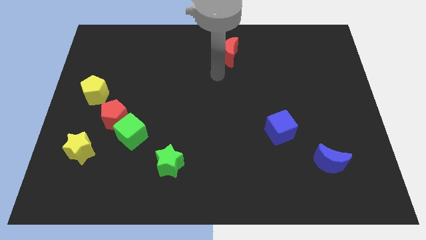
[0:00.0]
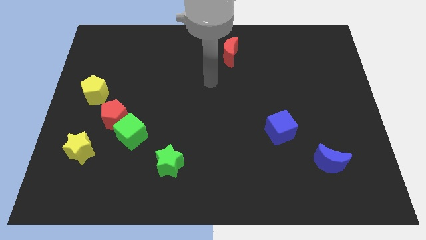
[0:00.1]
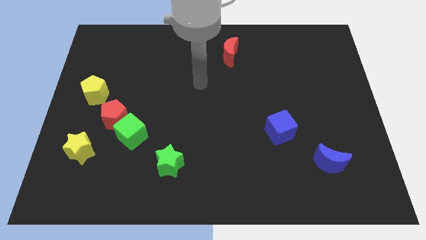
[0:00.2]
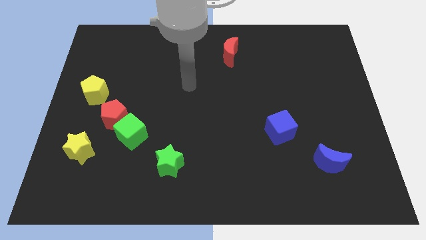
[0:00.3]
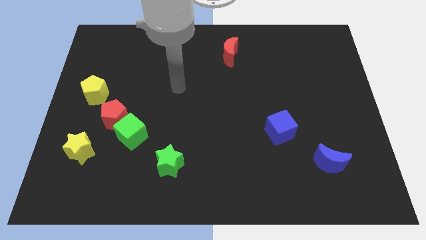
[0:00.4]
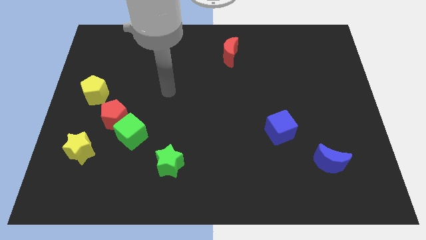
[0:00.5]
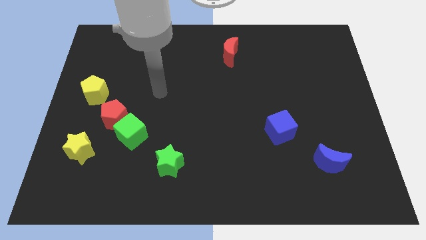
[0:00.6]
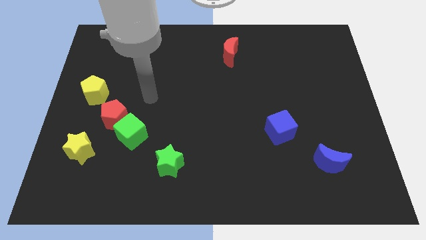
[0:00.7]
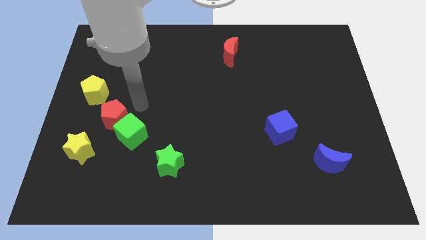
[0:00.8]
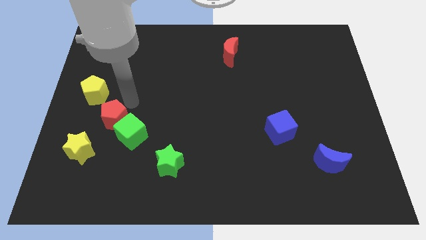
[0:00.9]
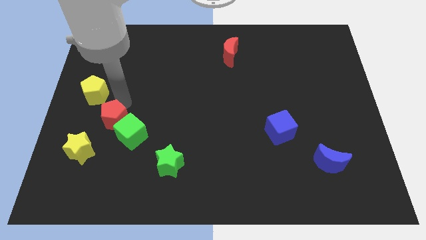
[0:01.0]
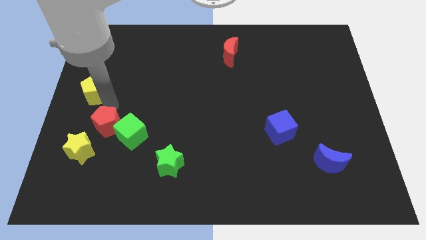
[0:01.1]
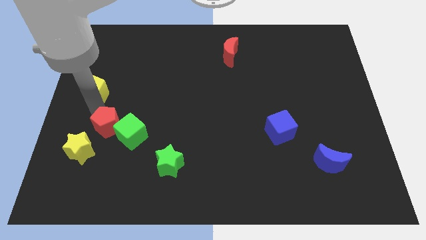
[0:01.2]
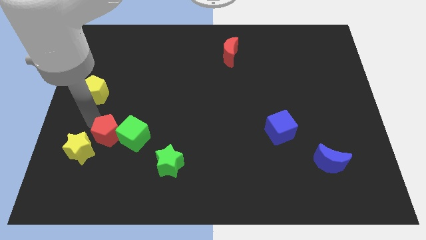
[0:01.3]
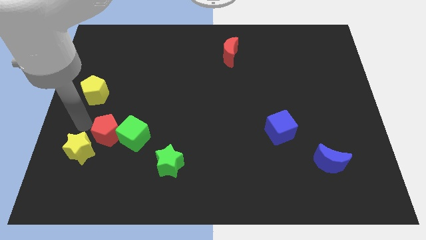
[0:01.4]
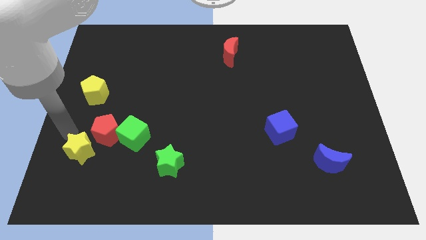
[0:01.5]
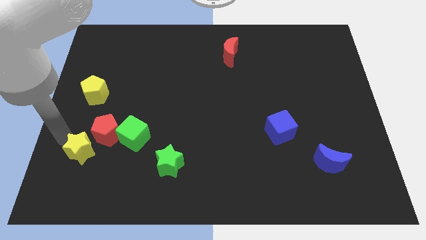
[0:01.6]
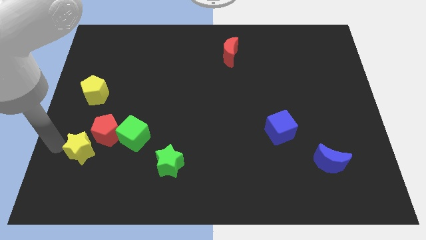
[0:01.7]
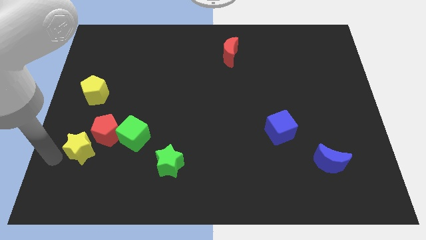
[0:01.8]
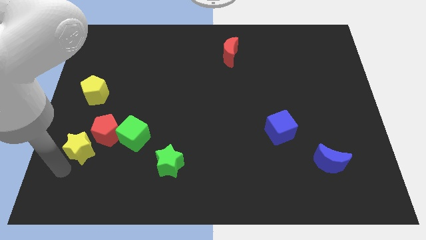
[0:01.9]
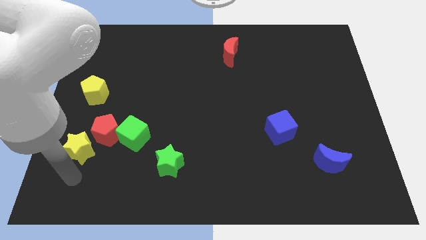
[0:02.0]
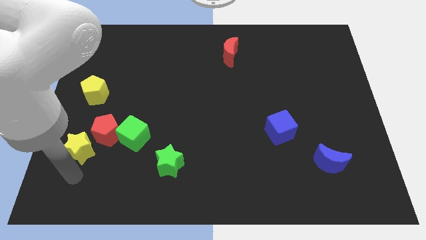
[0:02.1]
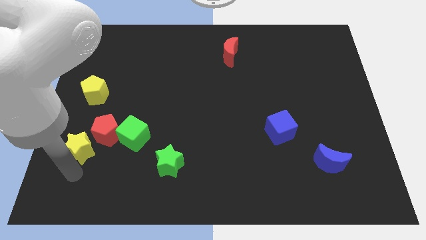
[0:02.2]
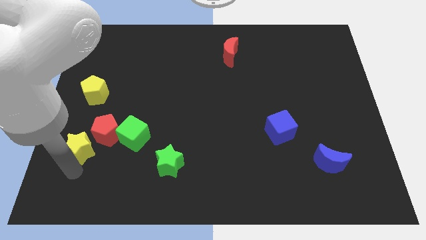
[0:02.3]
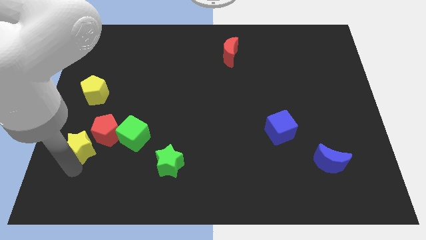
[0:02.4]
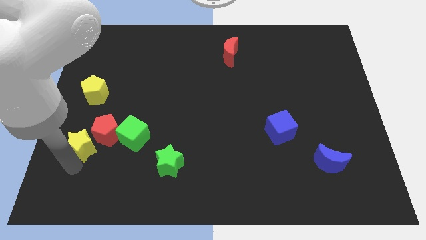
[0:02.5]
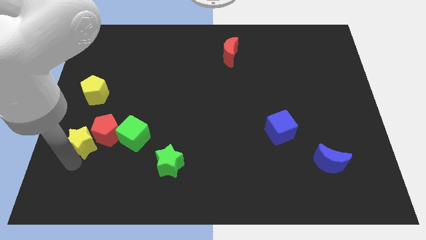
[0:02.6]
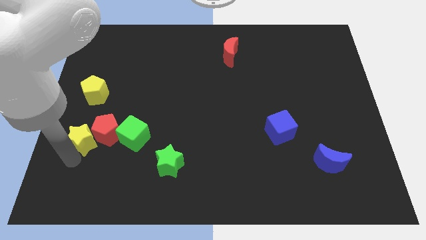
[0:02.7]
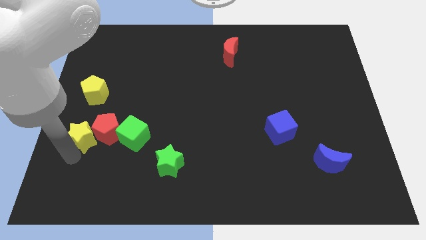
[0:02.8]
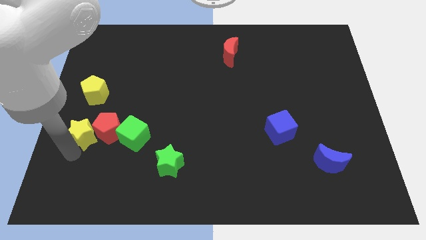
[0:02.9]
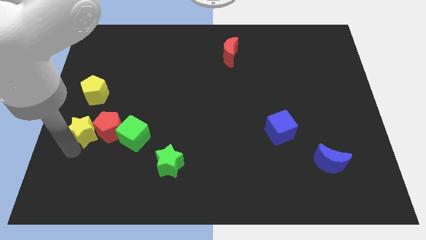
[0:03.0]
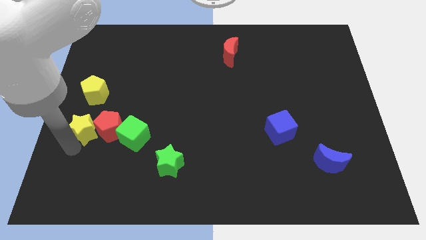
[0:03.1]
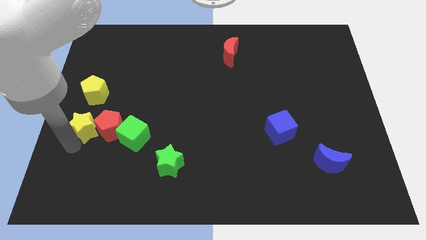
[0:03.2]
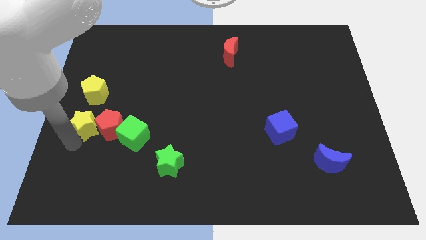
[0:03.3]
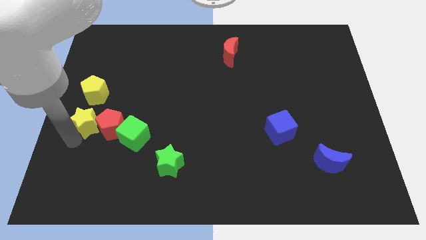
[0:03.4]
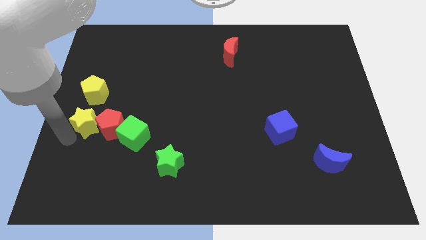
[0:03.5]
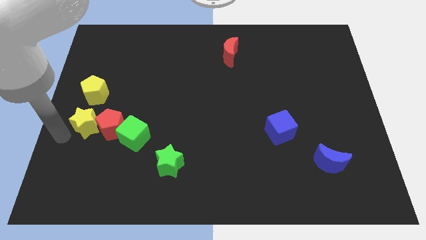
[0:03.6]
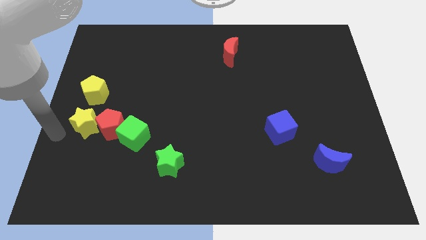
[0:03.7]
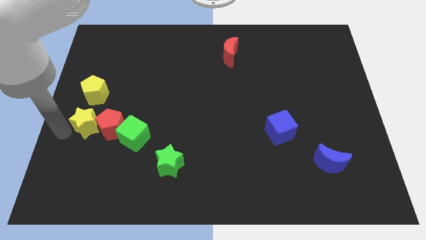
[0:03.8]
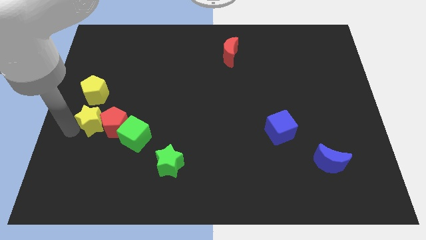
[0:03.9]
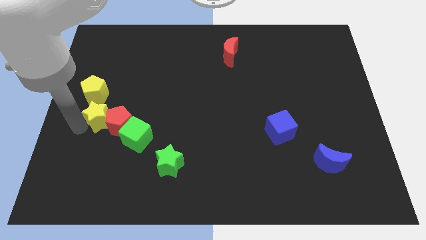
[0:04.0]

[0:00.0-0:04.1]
slide the yellow star to the top left side of the green cube

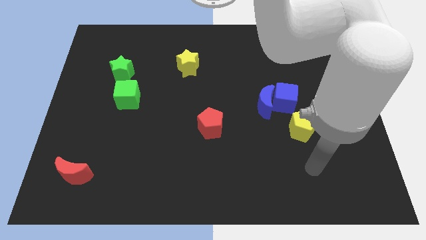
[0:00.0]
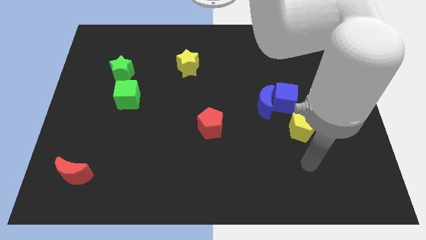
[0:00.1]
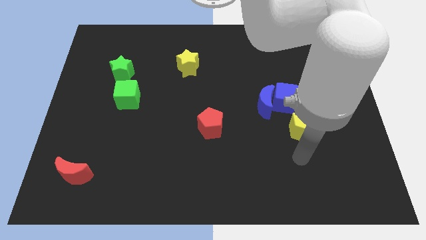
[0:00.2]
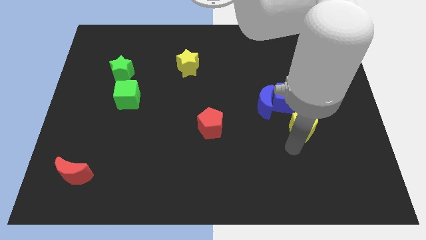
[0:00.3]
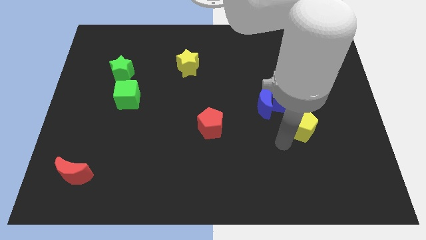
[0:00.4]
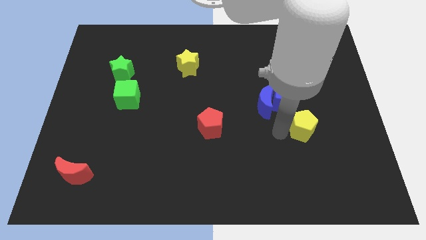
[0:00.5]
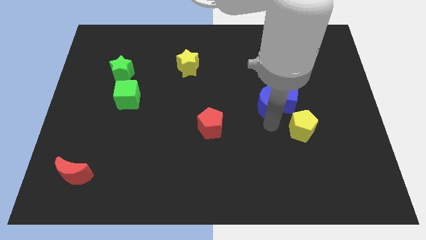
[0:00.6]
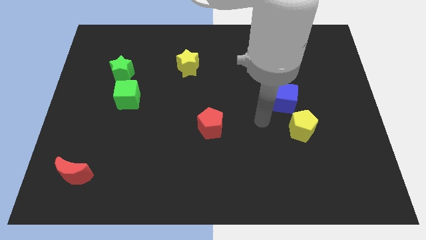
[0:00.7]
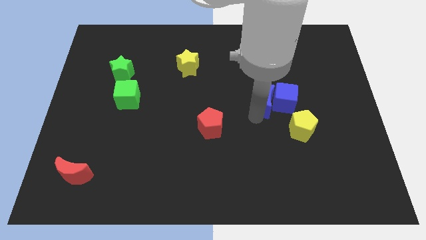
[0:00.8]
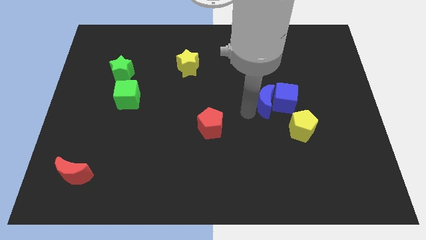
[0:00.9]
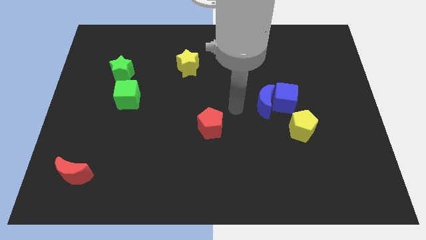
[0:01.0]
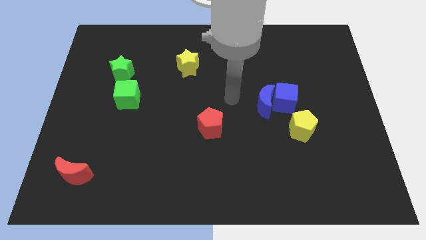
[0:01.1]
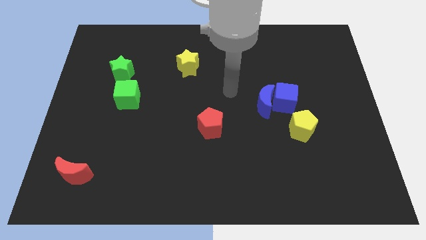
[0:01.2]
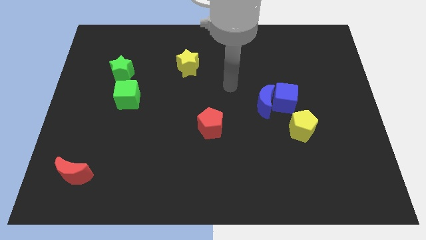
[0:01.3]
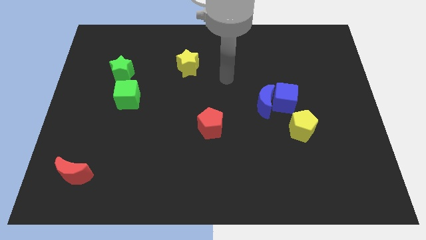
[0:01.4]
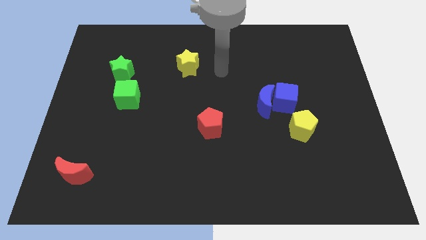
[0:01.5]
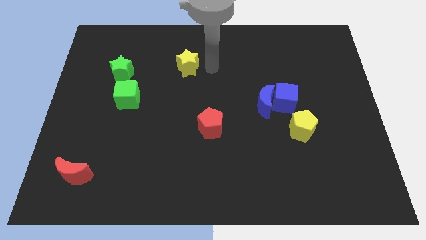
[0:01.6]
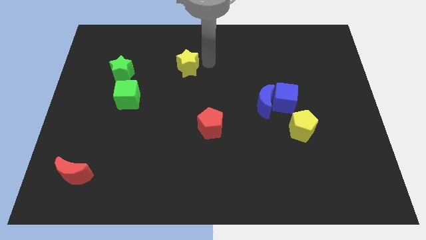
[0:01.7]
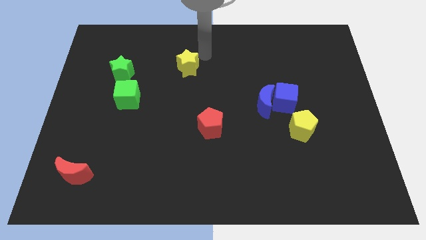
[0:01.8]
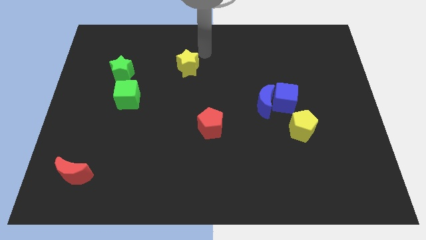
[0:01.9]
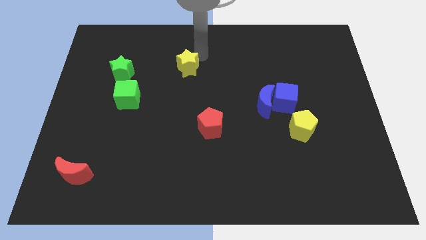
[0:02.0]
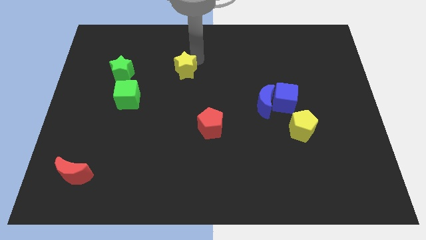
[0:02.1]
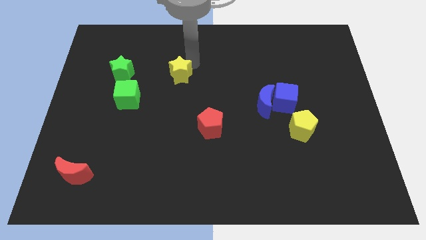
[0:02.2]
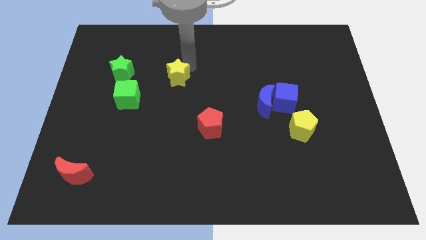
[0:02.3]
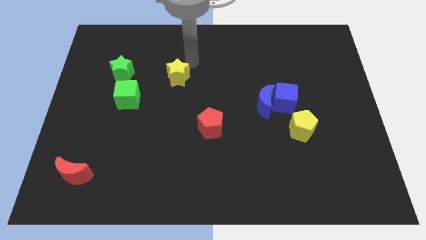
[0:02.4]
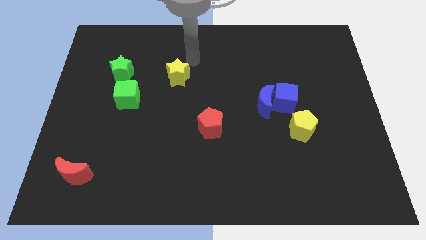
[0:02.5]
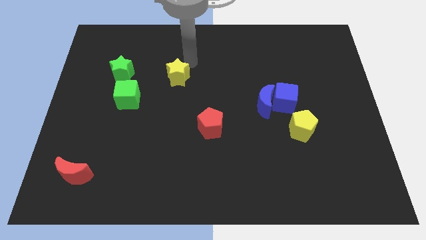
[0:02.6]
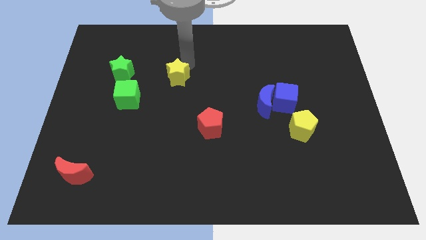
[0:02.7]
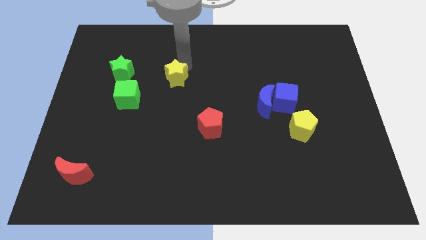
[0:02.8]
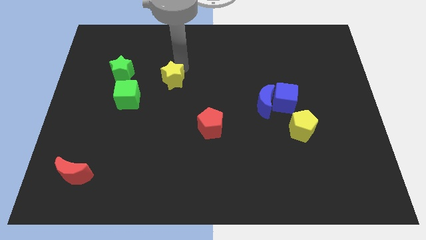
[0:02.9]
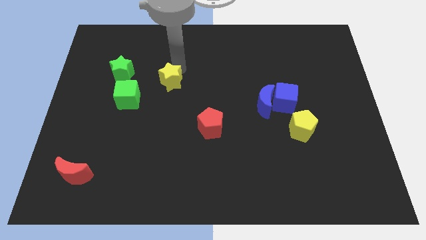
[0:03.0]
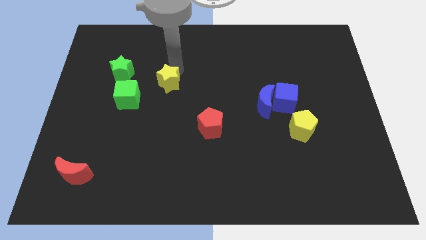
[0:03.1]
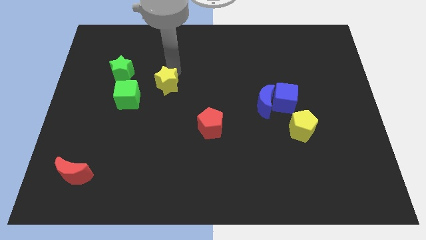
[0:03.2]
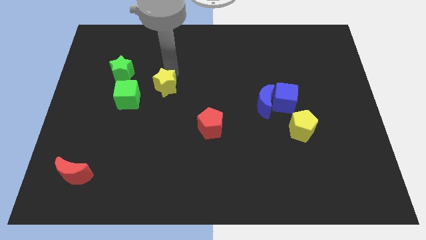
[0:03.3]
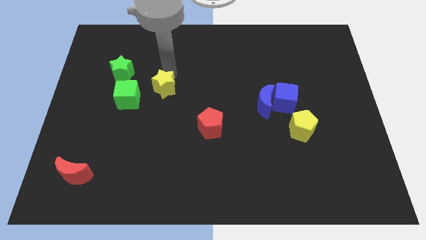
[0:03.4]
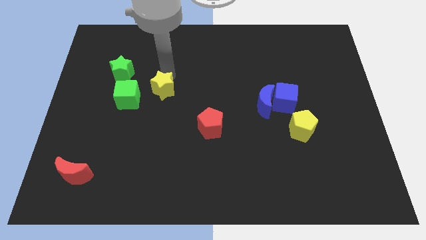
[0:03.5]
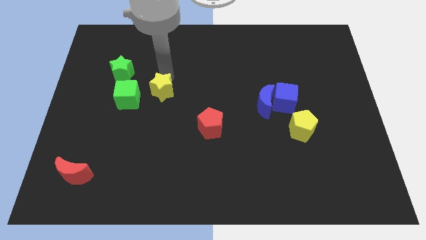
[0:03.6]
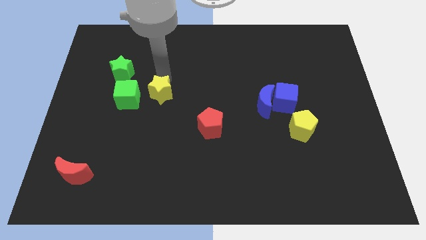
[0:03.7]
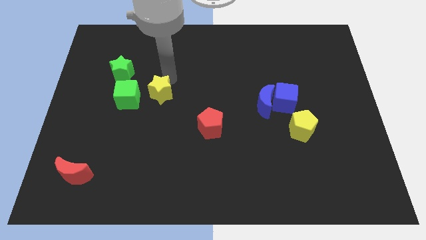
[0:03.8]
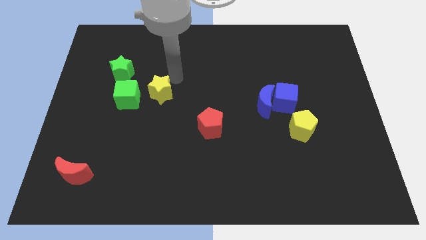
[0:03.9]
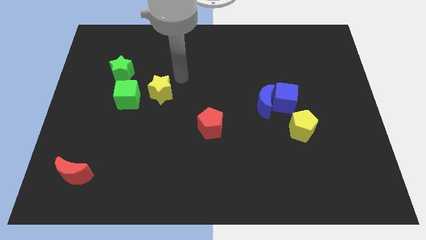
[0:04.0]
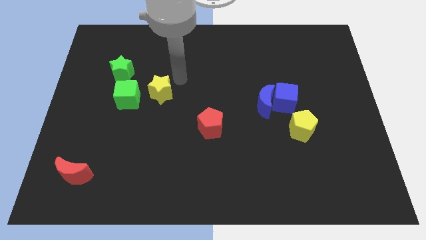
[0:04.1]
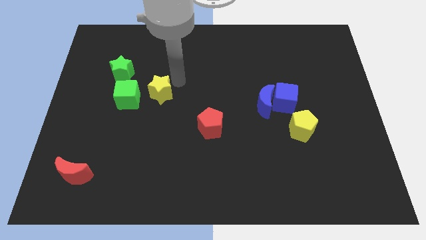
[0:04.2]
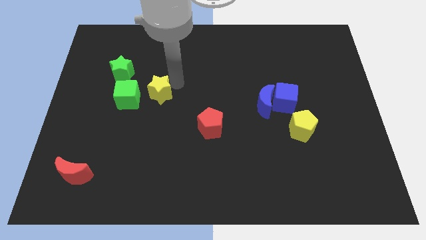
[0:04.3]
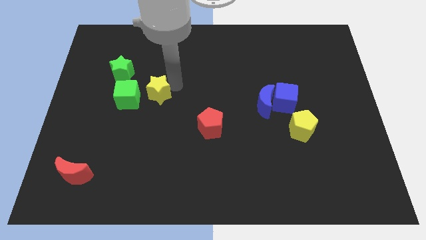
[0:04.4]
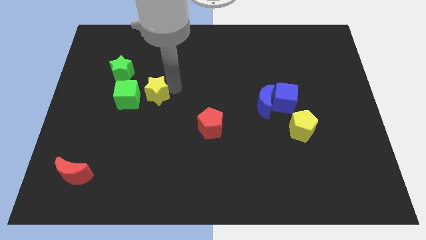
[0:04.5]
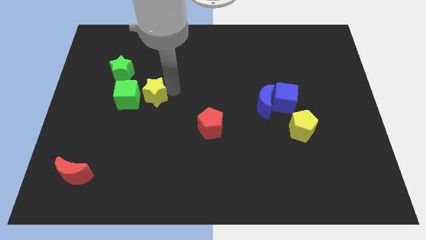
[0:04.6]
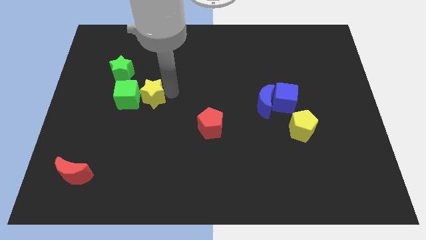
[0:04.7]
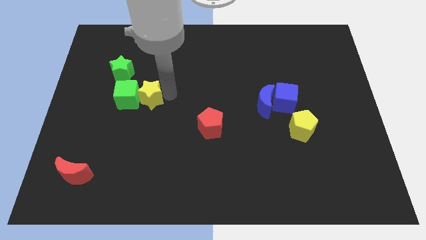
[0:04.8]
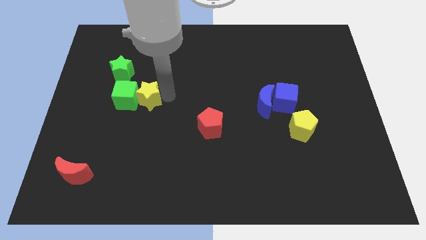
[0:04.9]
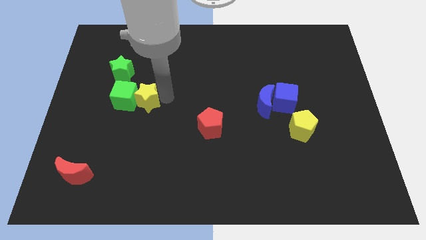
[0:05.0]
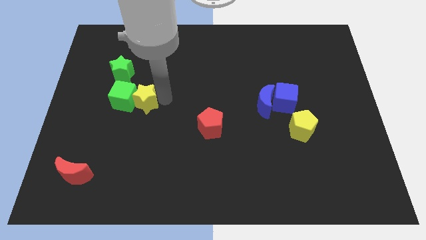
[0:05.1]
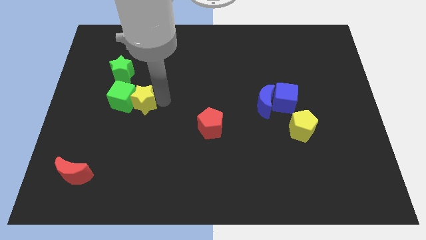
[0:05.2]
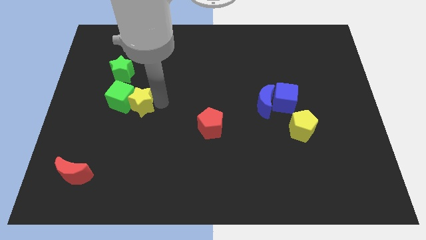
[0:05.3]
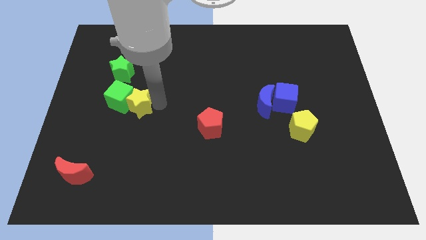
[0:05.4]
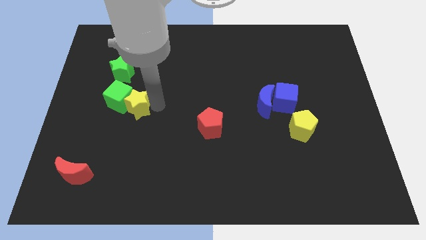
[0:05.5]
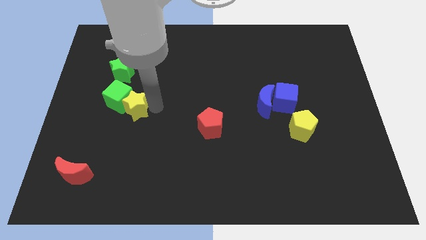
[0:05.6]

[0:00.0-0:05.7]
slide the yellow star to the bottom of the green star
